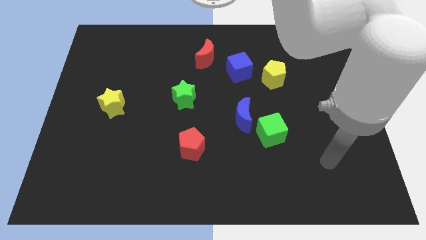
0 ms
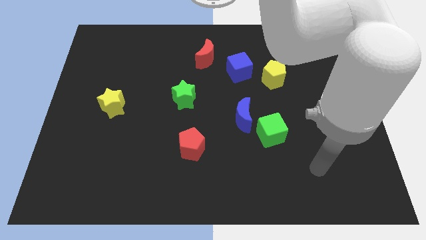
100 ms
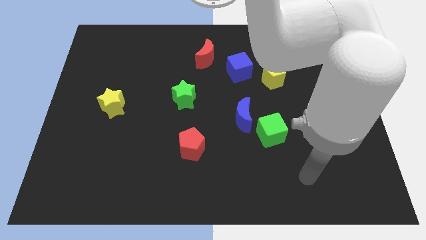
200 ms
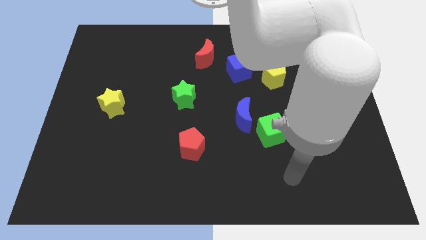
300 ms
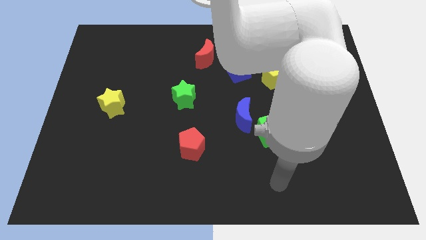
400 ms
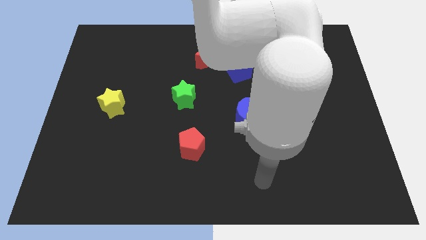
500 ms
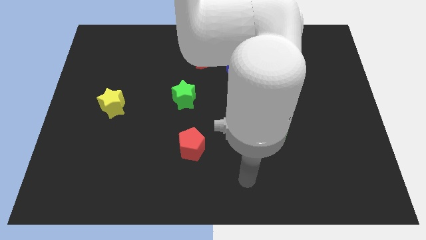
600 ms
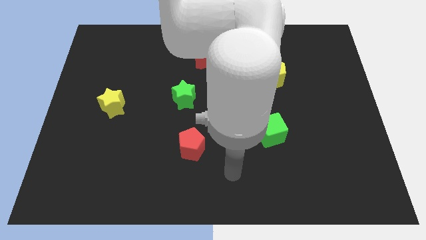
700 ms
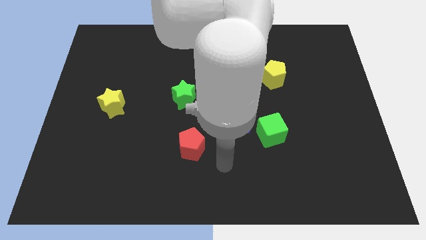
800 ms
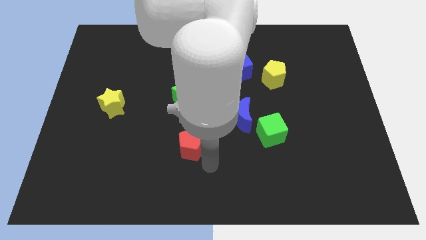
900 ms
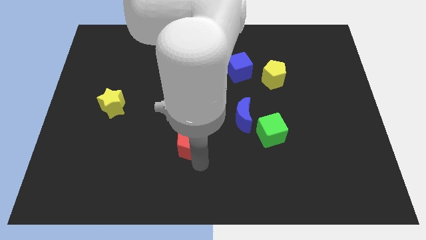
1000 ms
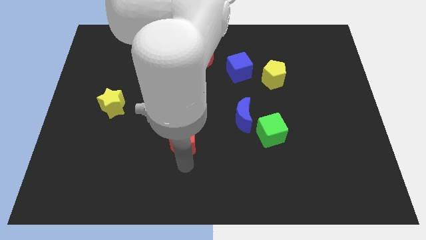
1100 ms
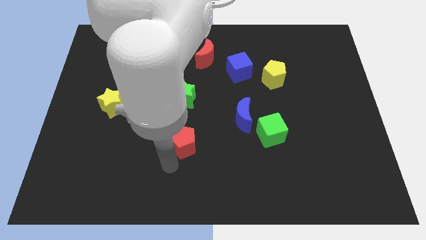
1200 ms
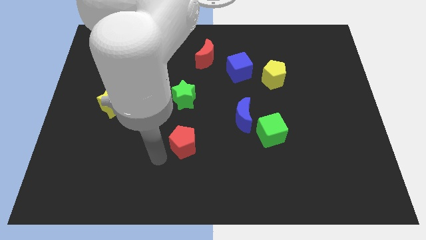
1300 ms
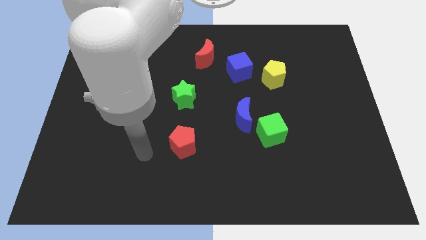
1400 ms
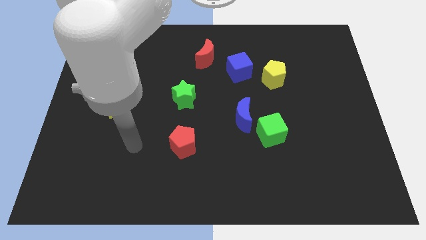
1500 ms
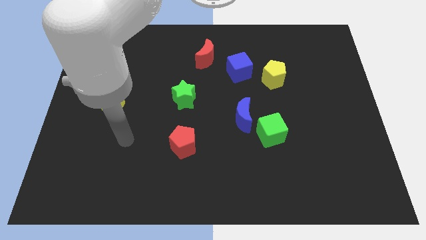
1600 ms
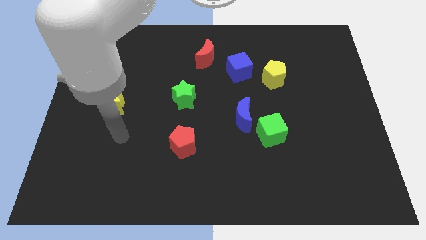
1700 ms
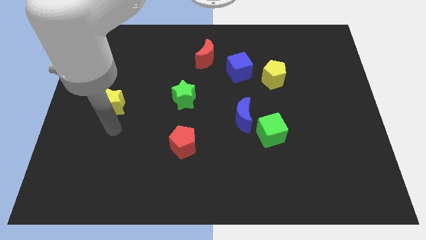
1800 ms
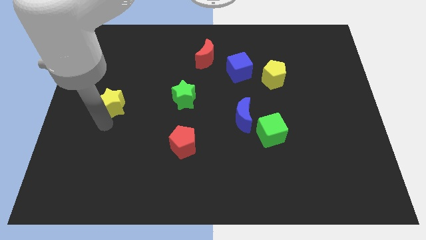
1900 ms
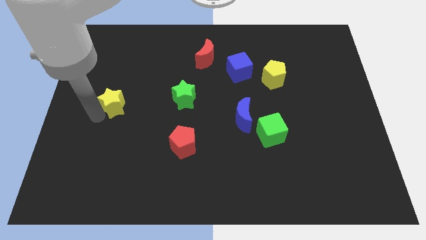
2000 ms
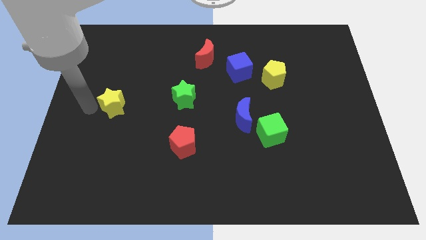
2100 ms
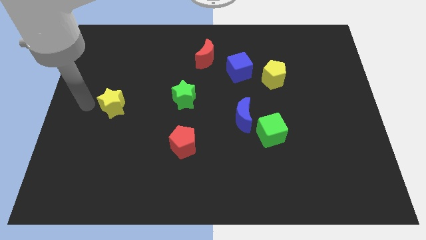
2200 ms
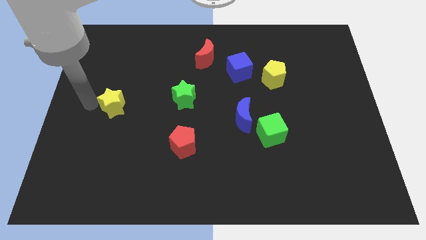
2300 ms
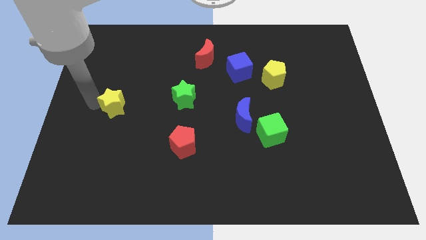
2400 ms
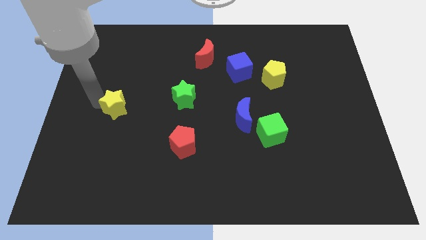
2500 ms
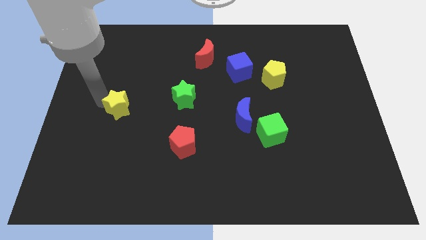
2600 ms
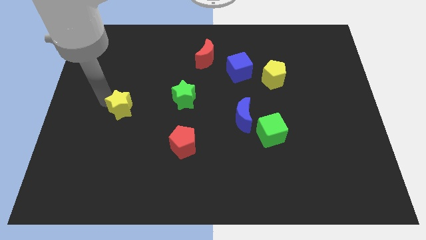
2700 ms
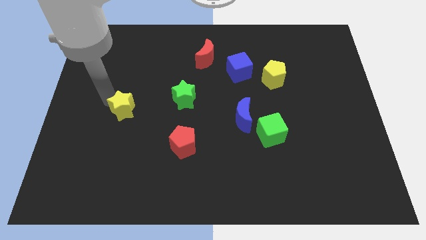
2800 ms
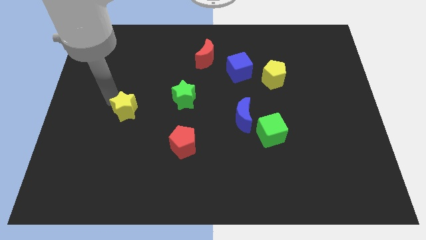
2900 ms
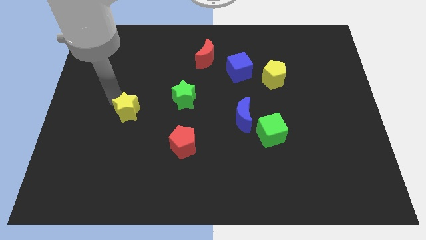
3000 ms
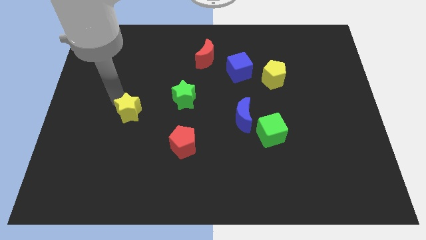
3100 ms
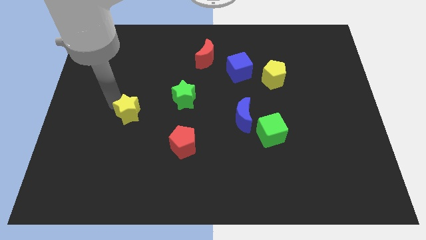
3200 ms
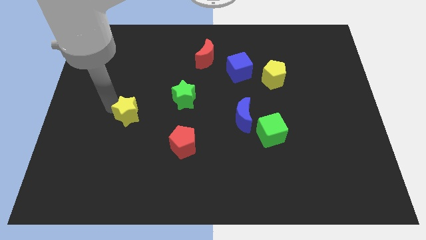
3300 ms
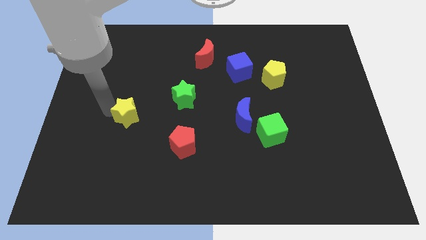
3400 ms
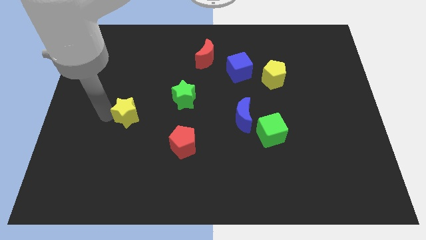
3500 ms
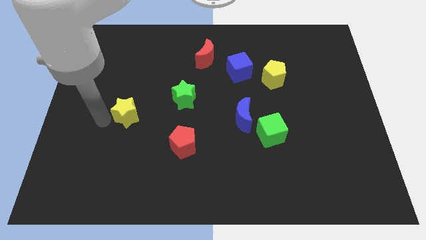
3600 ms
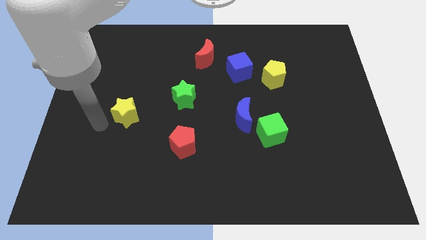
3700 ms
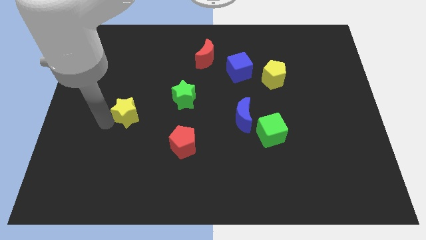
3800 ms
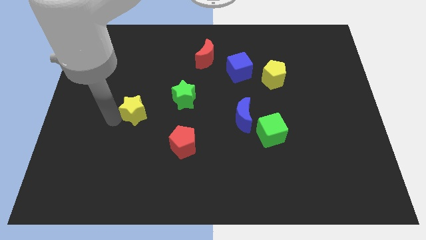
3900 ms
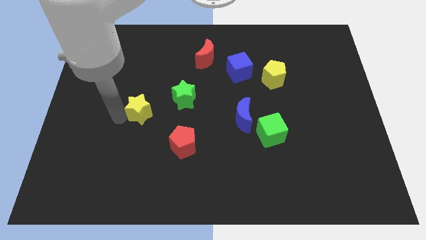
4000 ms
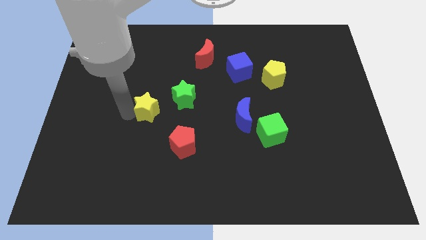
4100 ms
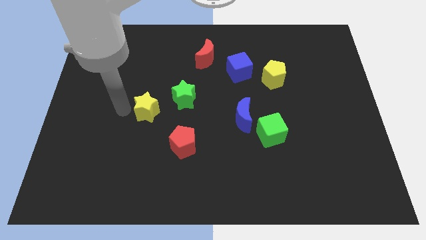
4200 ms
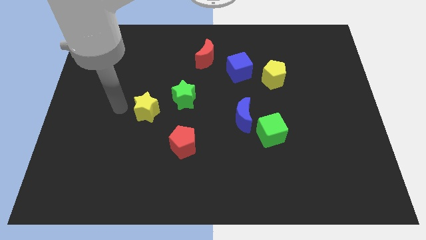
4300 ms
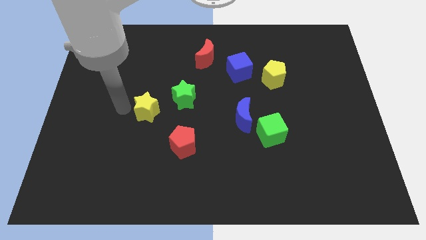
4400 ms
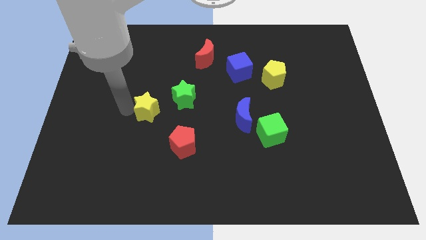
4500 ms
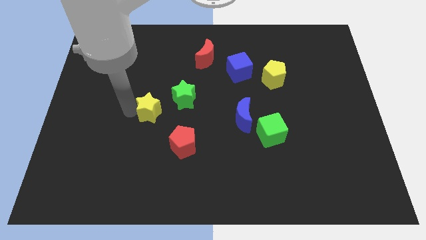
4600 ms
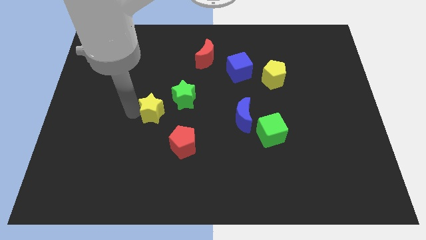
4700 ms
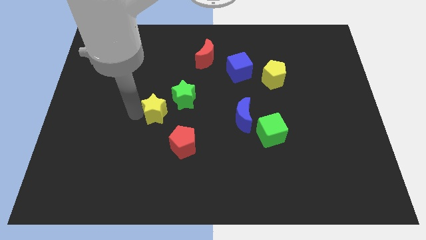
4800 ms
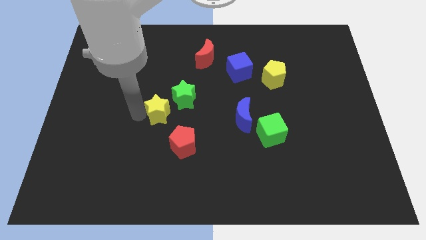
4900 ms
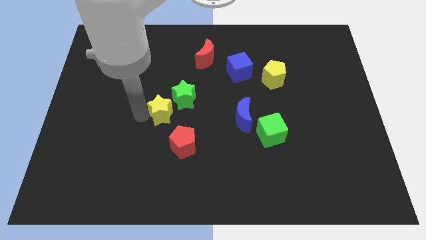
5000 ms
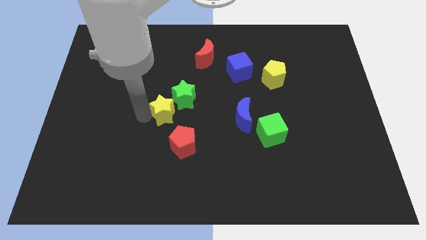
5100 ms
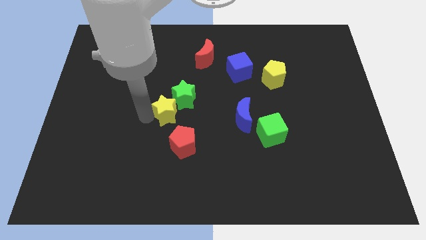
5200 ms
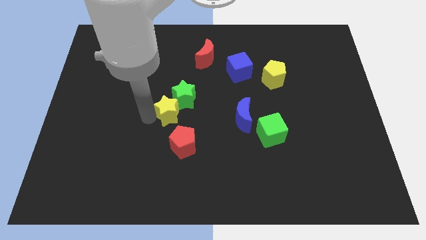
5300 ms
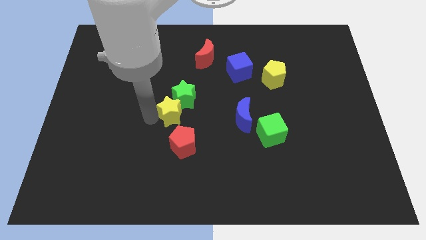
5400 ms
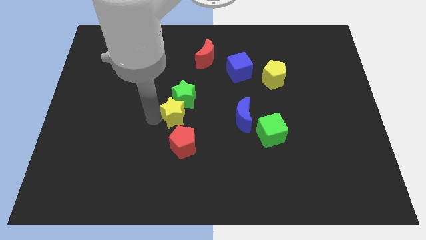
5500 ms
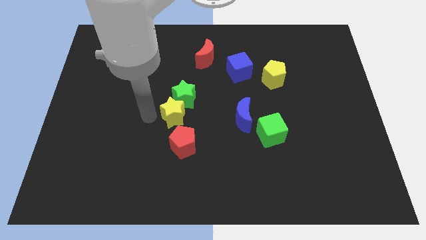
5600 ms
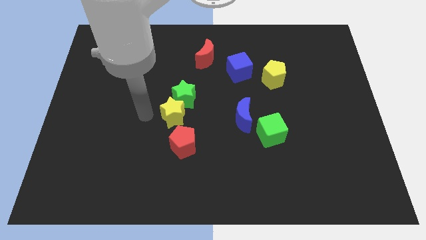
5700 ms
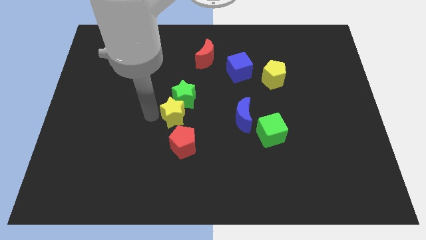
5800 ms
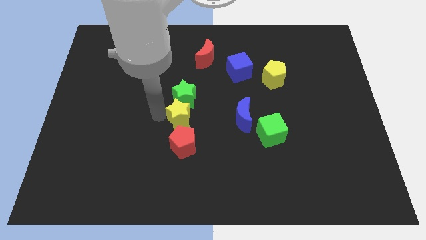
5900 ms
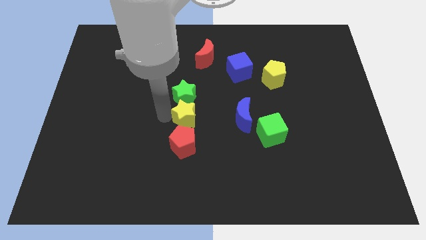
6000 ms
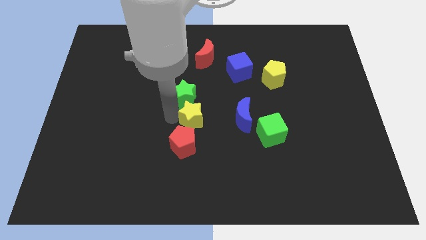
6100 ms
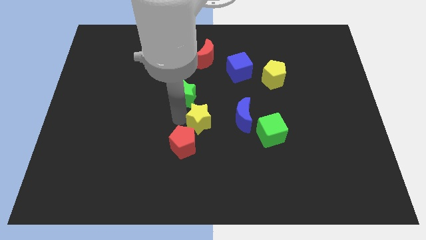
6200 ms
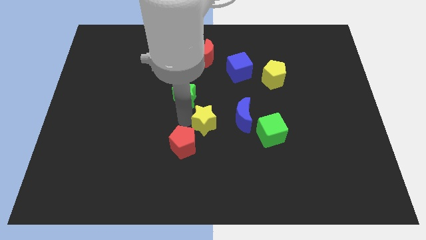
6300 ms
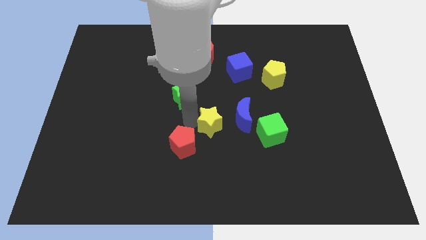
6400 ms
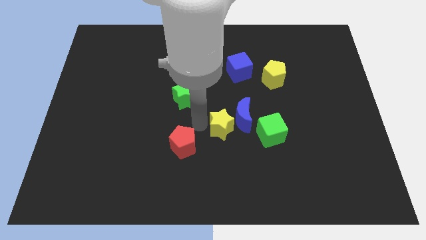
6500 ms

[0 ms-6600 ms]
put the yellow star to the blue moon
